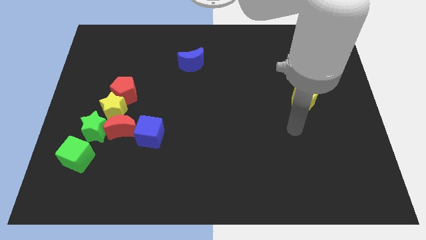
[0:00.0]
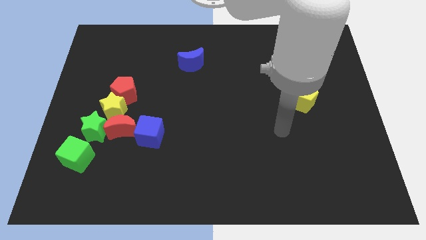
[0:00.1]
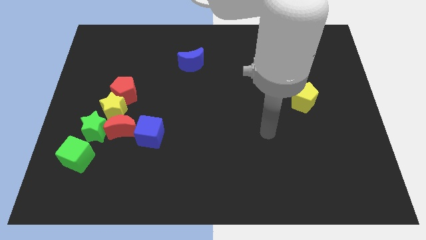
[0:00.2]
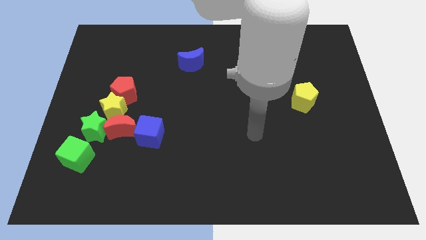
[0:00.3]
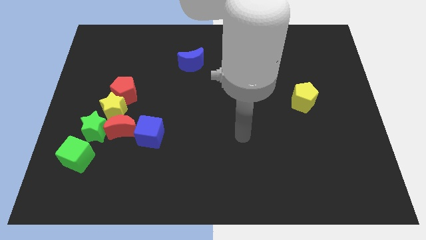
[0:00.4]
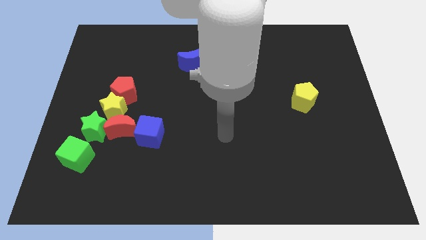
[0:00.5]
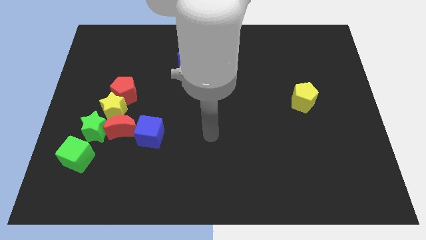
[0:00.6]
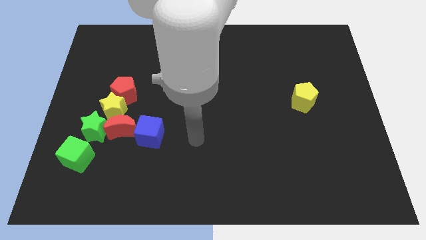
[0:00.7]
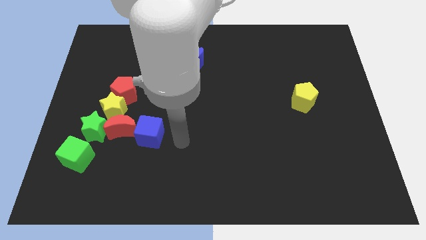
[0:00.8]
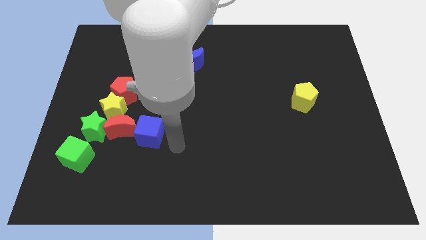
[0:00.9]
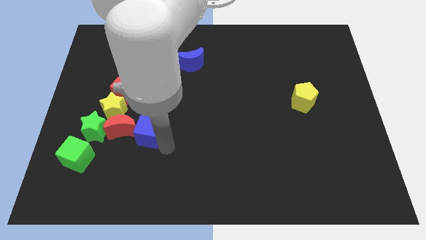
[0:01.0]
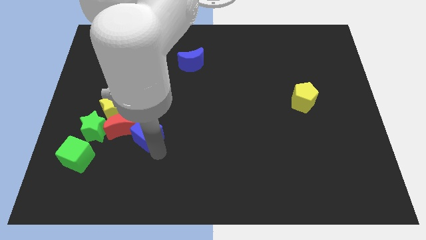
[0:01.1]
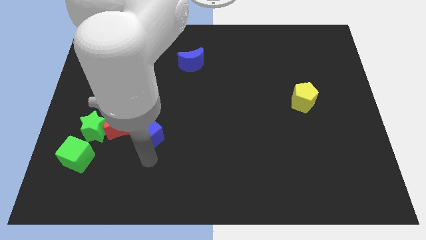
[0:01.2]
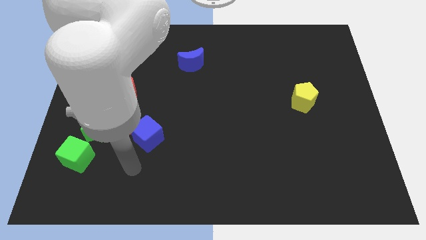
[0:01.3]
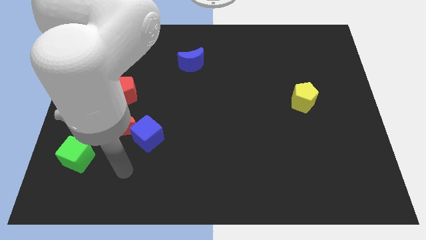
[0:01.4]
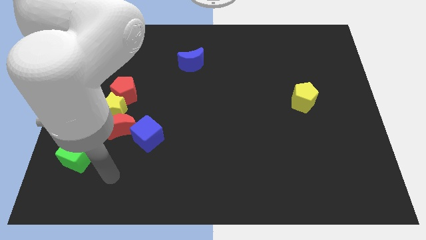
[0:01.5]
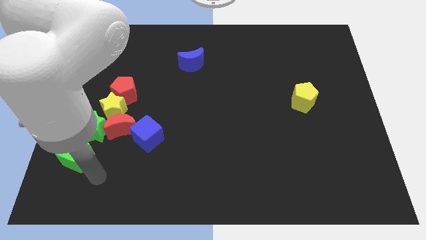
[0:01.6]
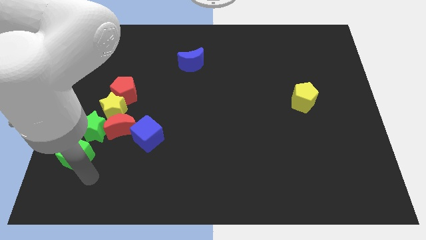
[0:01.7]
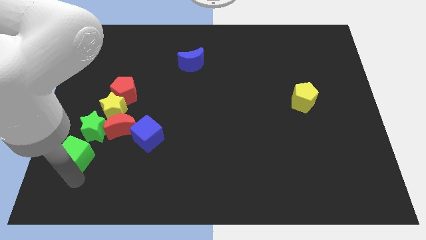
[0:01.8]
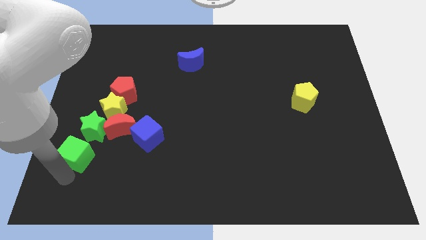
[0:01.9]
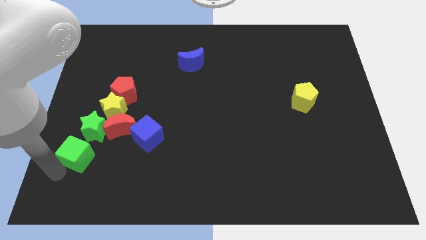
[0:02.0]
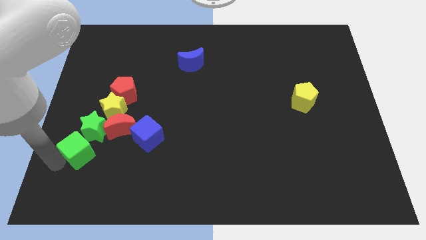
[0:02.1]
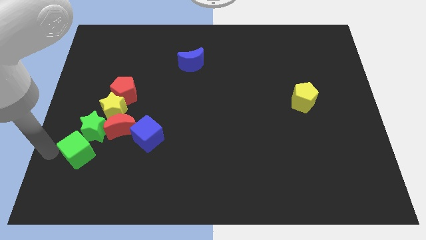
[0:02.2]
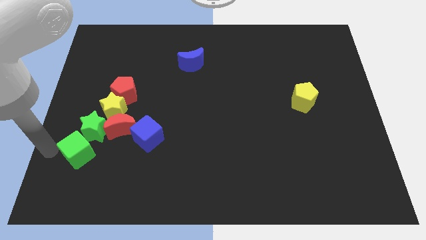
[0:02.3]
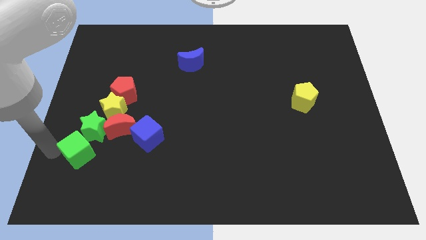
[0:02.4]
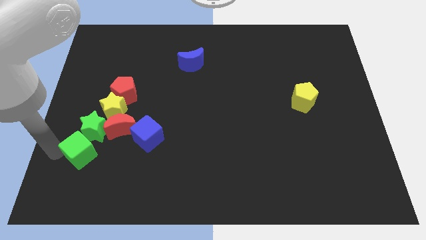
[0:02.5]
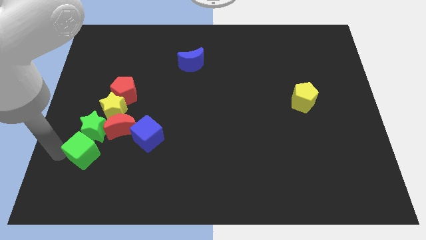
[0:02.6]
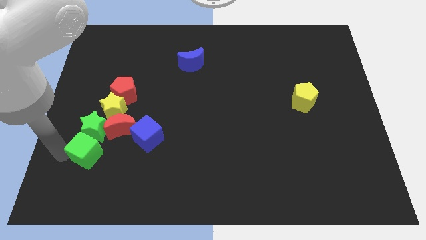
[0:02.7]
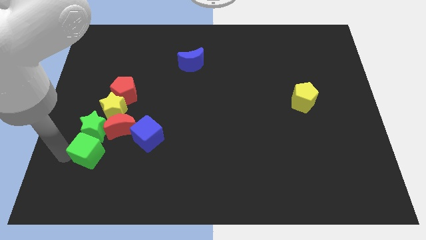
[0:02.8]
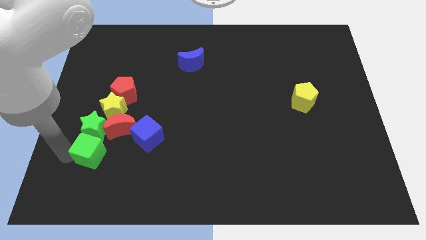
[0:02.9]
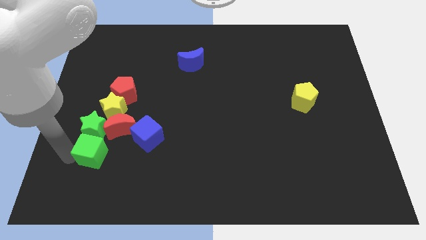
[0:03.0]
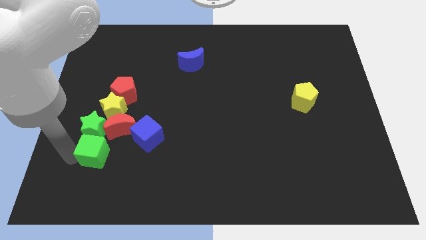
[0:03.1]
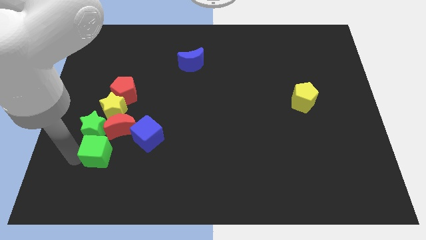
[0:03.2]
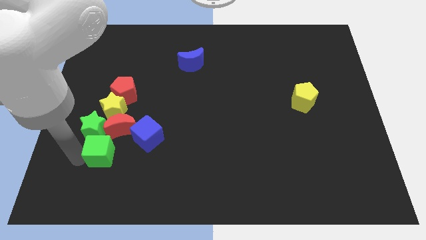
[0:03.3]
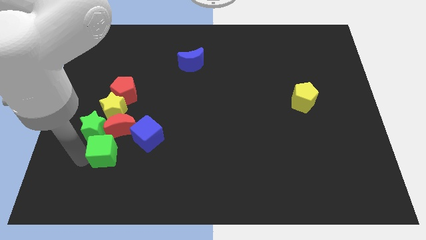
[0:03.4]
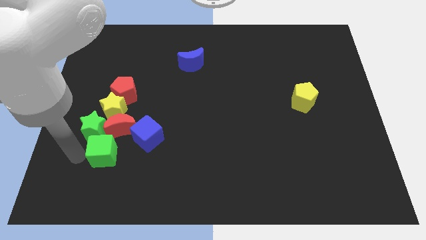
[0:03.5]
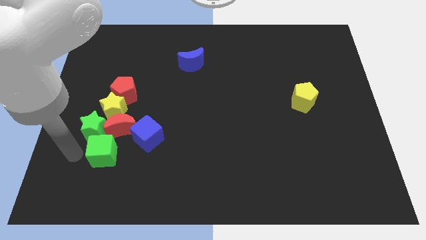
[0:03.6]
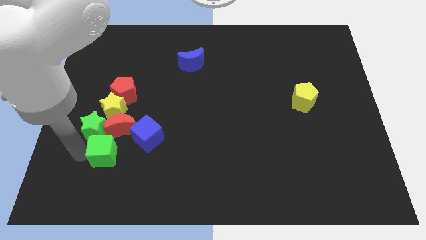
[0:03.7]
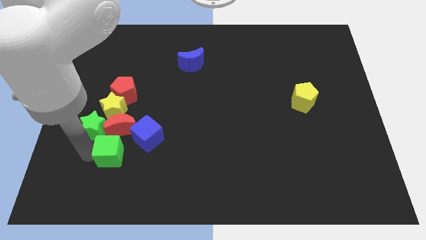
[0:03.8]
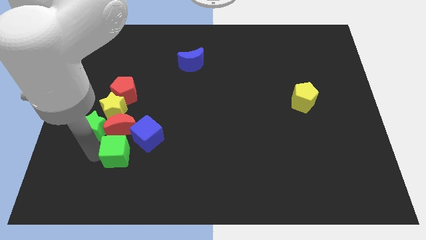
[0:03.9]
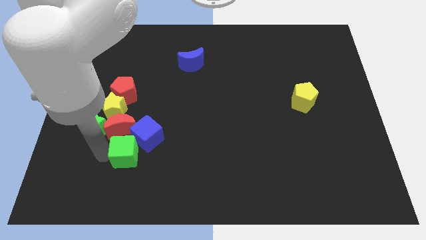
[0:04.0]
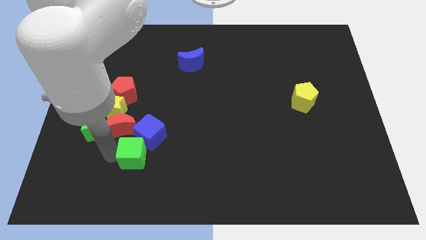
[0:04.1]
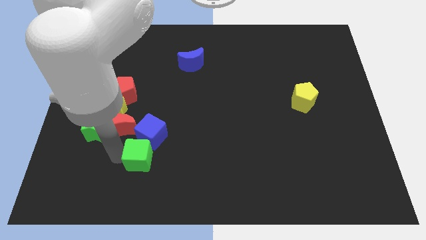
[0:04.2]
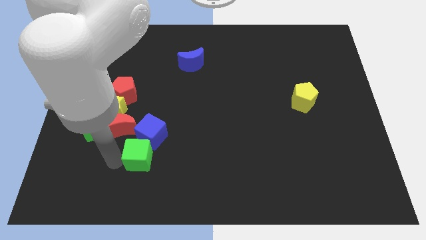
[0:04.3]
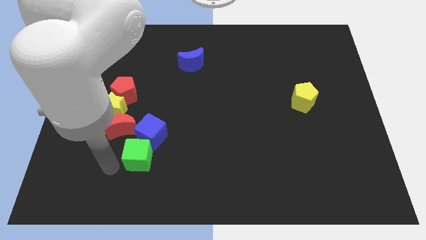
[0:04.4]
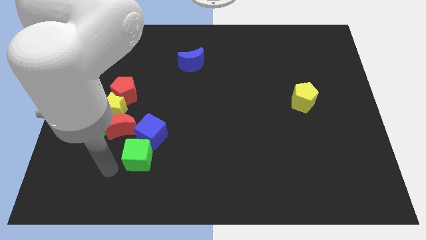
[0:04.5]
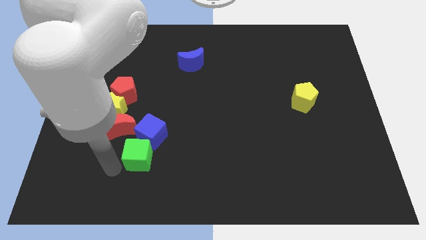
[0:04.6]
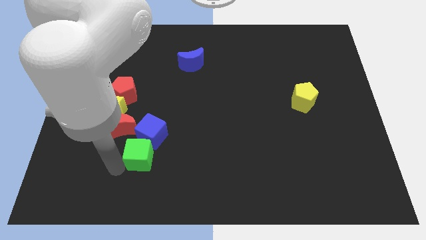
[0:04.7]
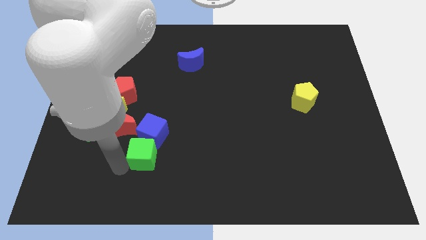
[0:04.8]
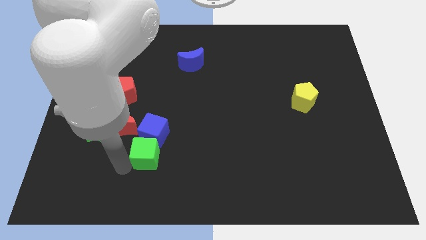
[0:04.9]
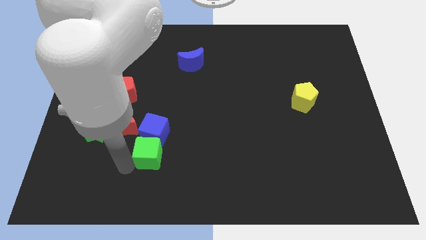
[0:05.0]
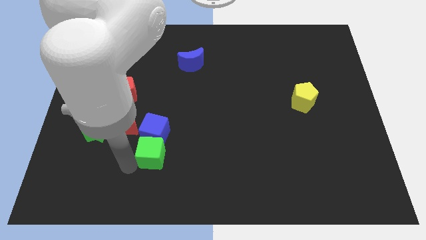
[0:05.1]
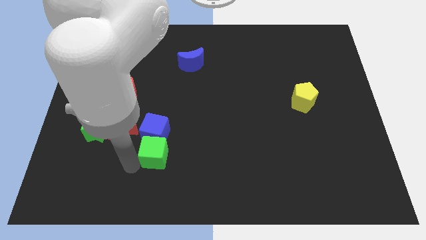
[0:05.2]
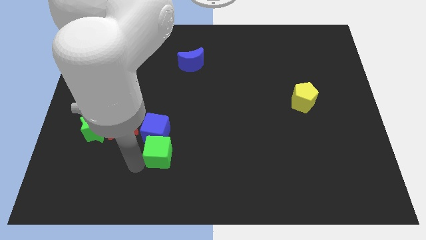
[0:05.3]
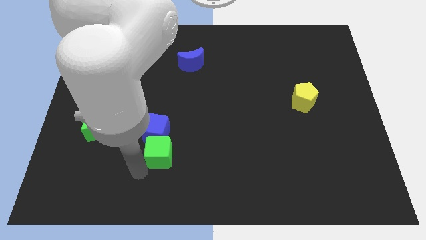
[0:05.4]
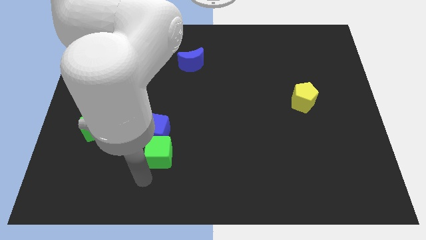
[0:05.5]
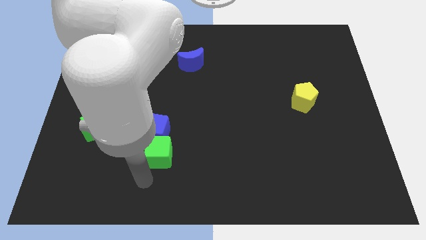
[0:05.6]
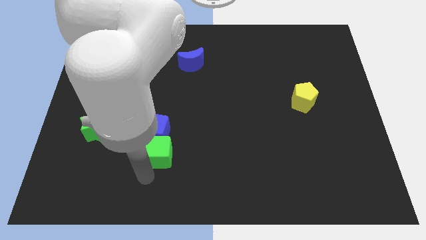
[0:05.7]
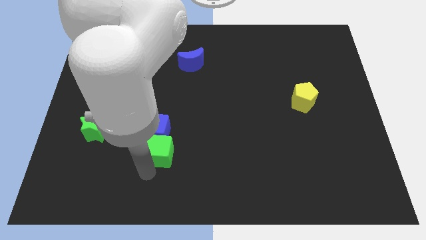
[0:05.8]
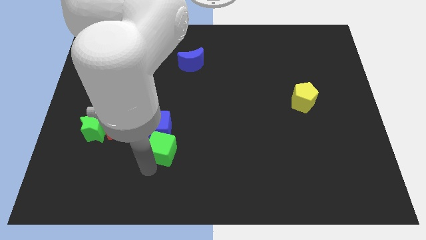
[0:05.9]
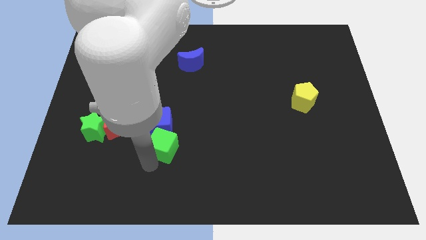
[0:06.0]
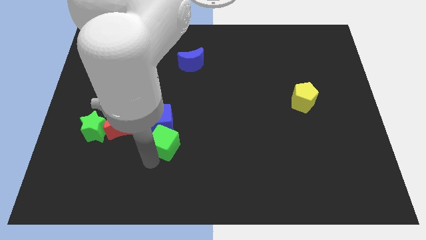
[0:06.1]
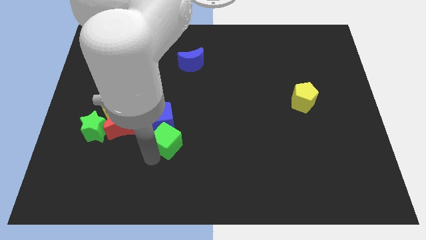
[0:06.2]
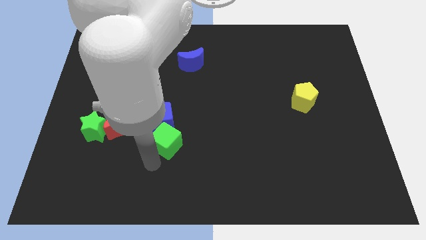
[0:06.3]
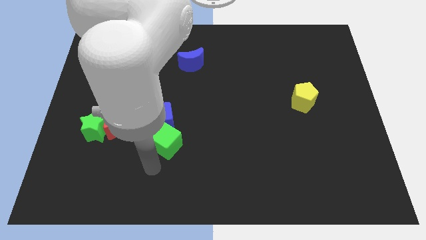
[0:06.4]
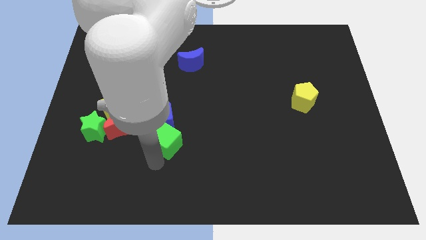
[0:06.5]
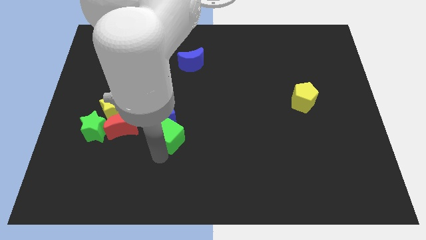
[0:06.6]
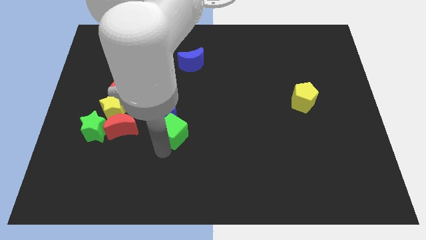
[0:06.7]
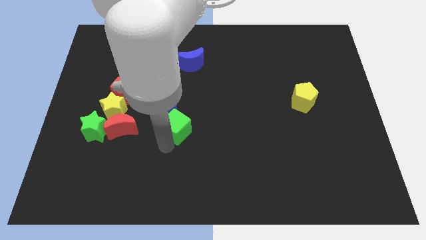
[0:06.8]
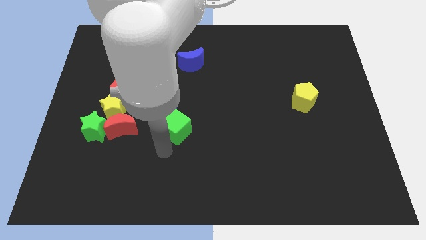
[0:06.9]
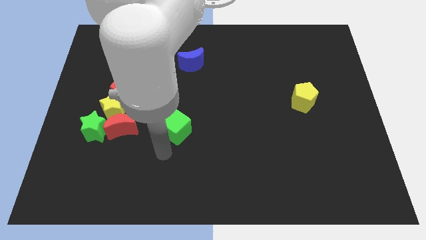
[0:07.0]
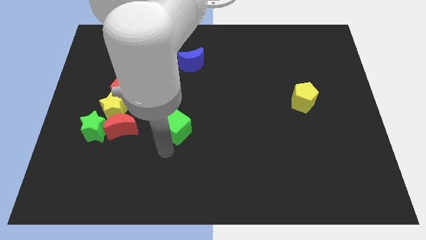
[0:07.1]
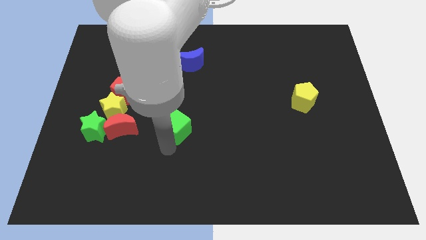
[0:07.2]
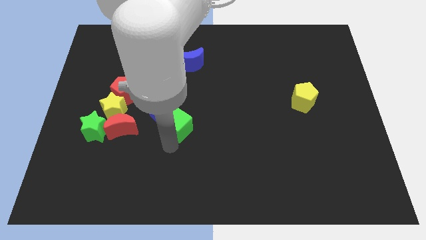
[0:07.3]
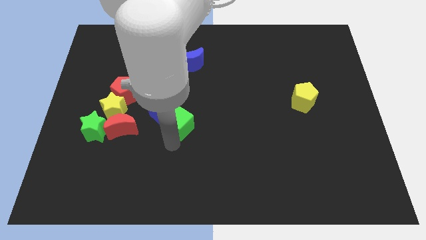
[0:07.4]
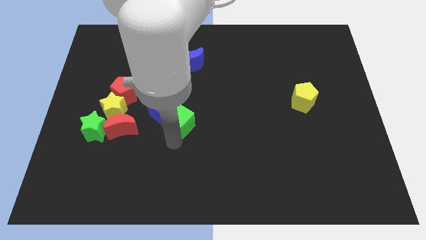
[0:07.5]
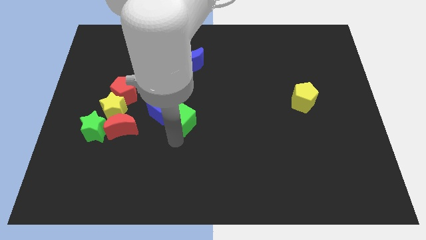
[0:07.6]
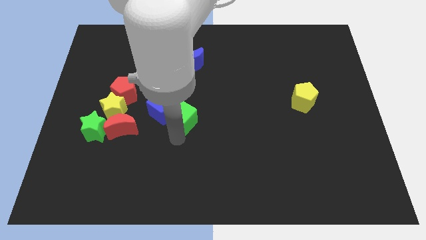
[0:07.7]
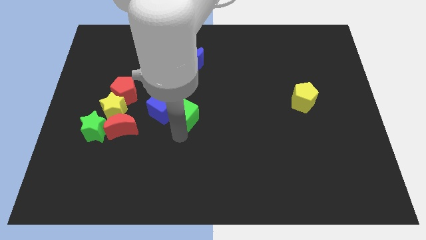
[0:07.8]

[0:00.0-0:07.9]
move the green cube upwards and right

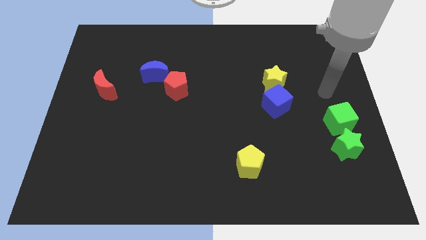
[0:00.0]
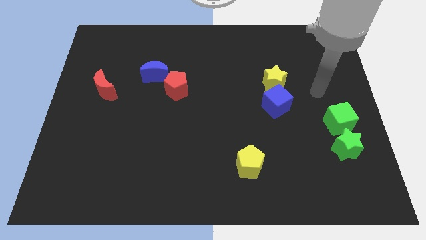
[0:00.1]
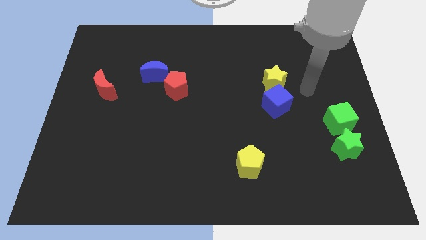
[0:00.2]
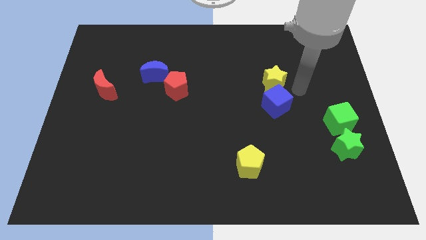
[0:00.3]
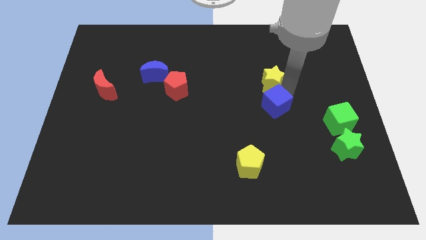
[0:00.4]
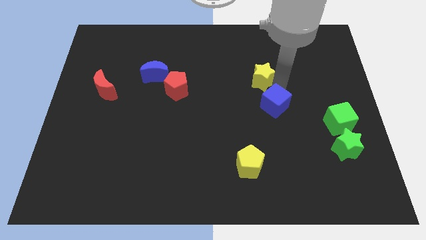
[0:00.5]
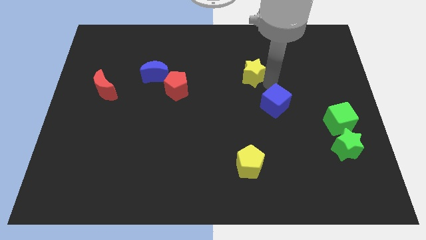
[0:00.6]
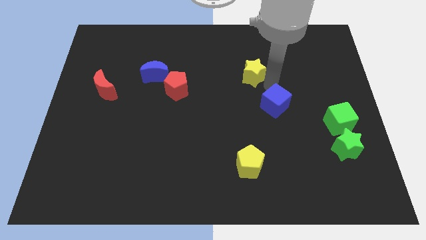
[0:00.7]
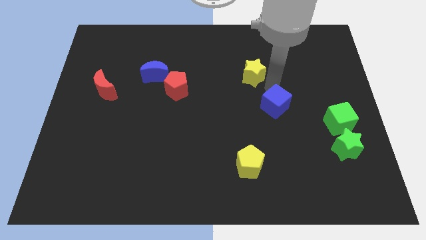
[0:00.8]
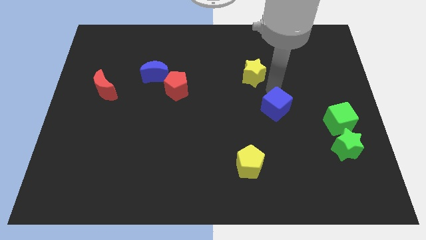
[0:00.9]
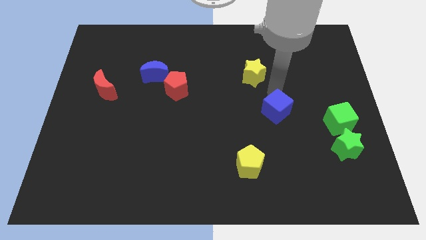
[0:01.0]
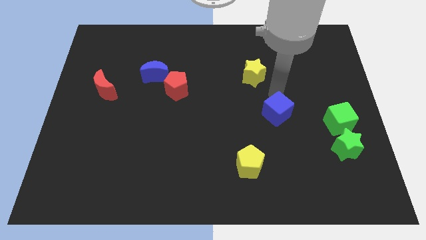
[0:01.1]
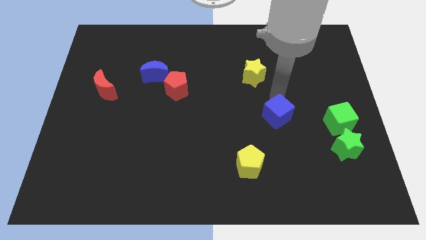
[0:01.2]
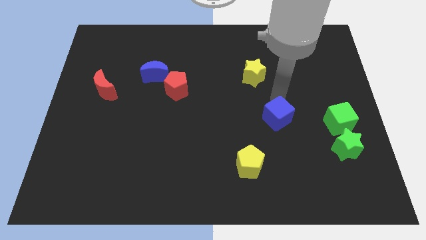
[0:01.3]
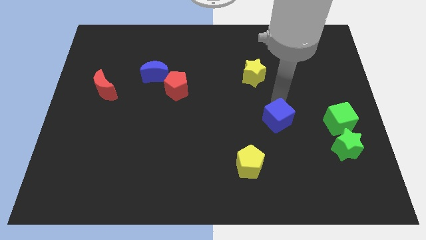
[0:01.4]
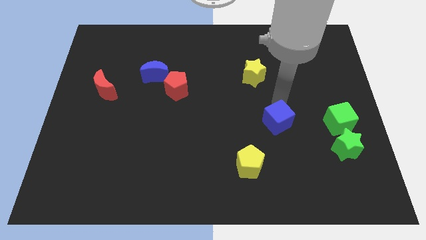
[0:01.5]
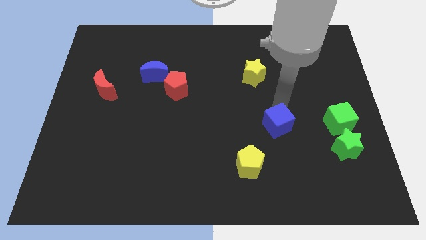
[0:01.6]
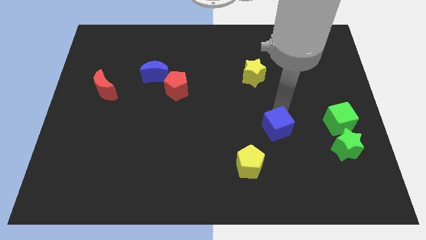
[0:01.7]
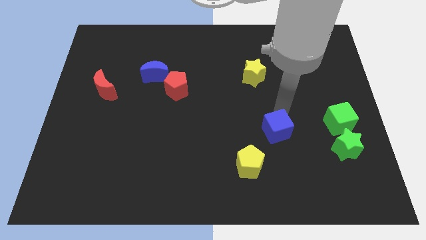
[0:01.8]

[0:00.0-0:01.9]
push the blue cube downwards somewhat
